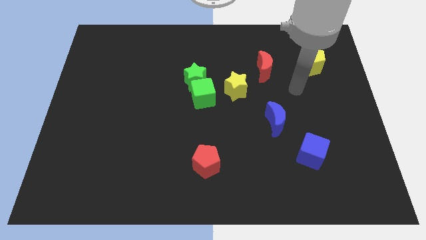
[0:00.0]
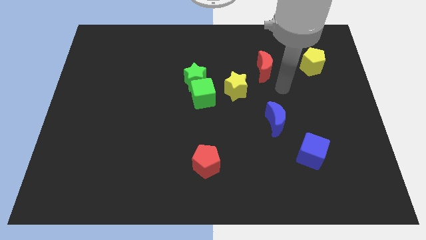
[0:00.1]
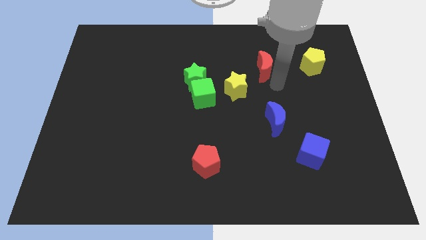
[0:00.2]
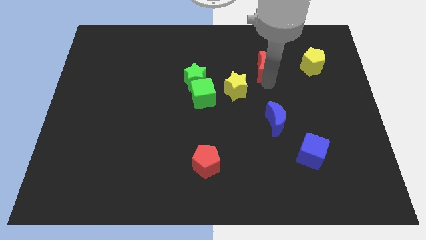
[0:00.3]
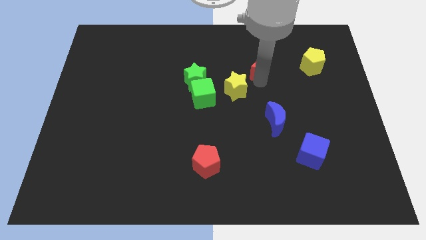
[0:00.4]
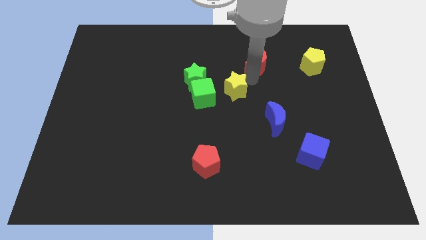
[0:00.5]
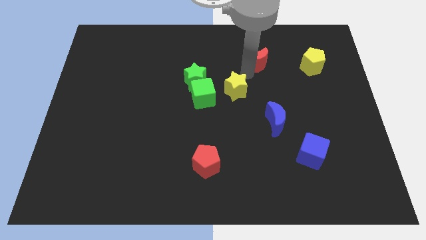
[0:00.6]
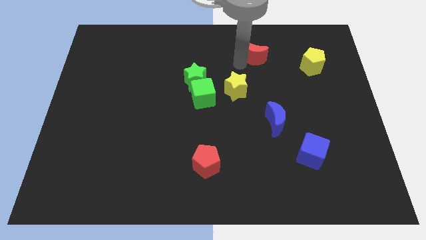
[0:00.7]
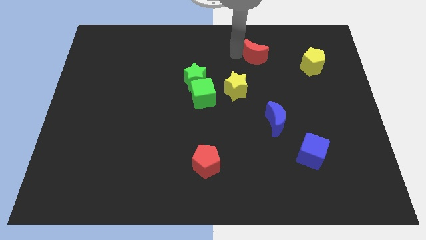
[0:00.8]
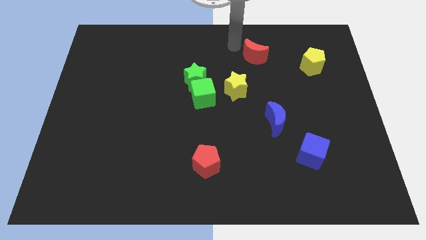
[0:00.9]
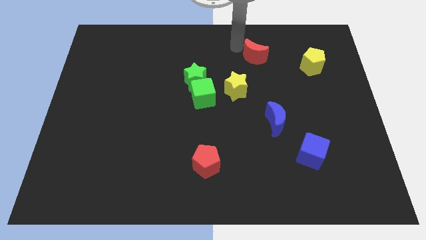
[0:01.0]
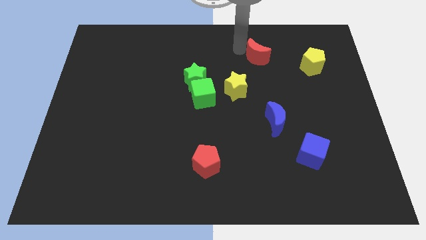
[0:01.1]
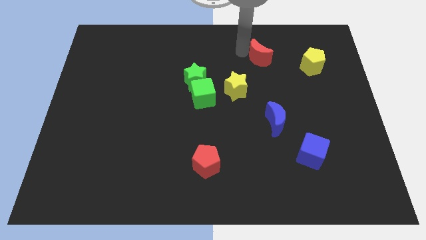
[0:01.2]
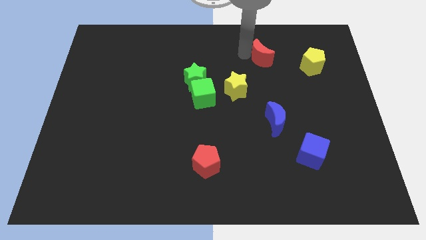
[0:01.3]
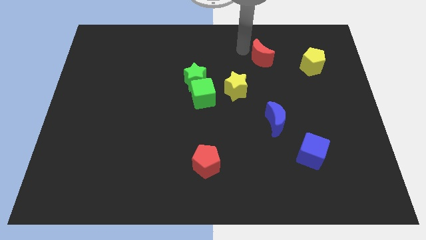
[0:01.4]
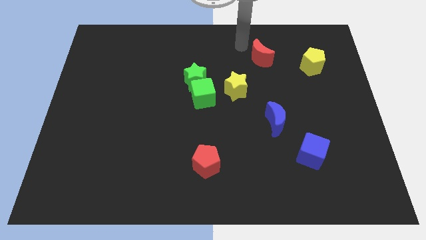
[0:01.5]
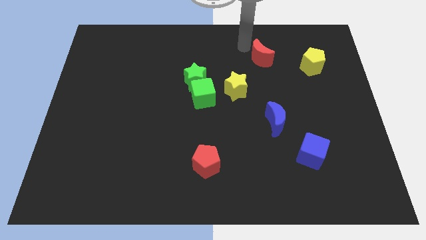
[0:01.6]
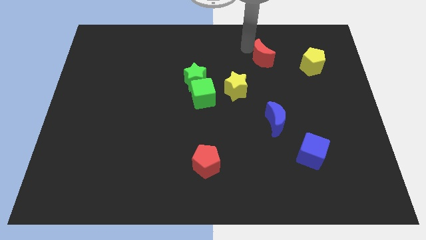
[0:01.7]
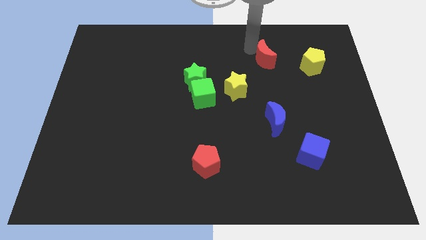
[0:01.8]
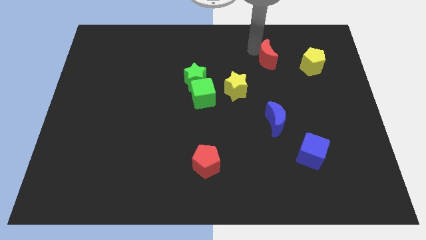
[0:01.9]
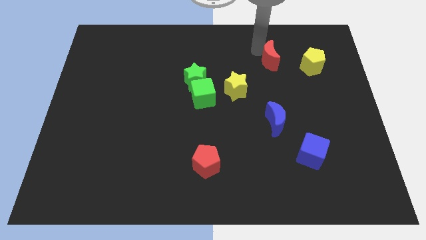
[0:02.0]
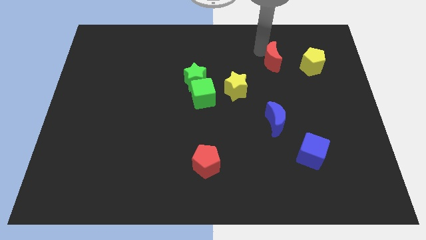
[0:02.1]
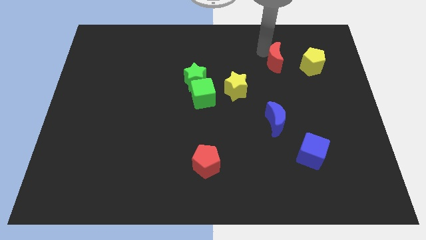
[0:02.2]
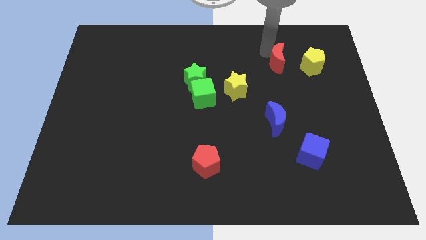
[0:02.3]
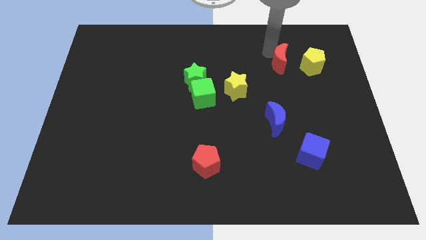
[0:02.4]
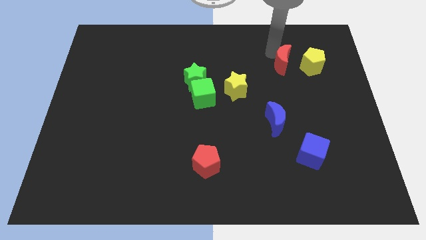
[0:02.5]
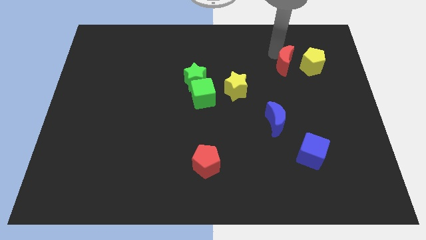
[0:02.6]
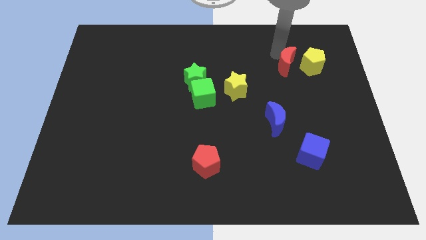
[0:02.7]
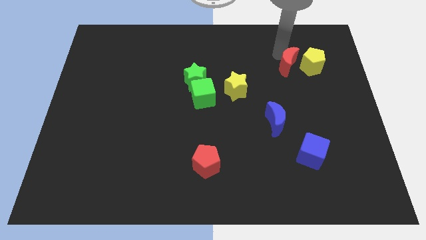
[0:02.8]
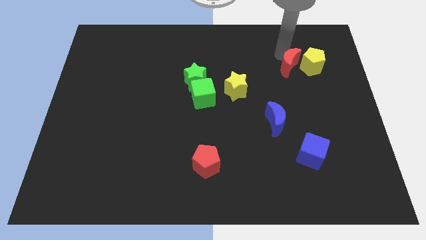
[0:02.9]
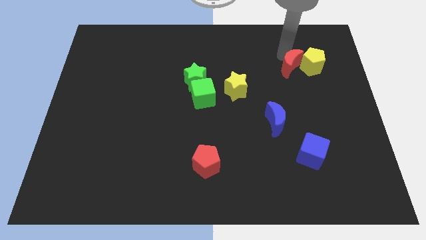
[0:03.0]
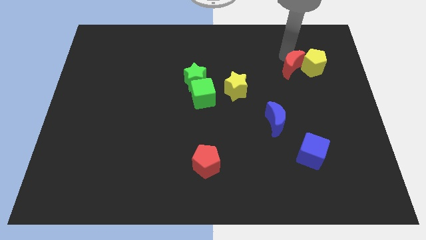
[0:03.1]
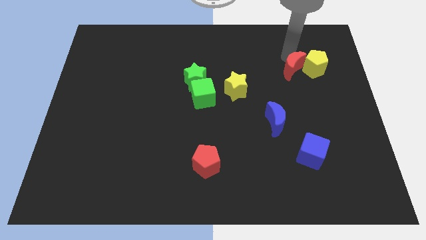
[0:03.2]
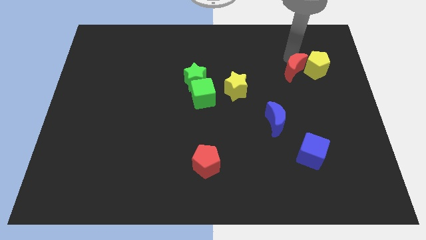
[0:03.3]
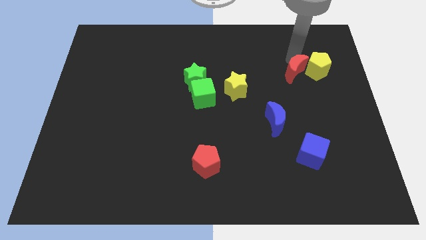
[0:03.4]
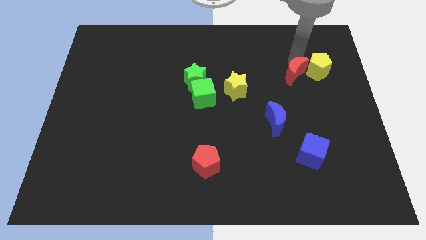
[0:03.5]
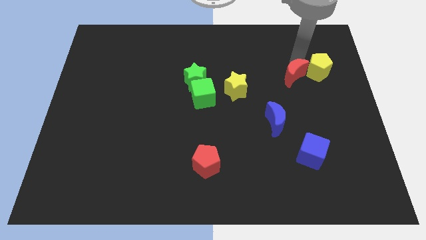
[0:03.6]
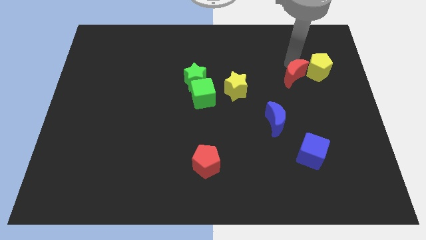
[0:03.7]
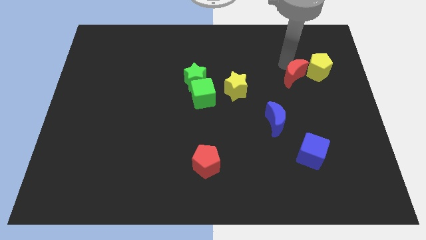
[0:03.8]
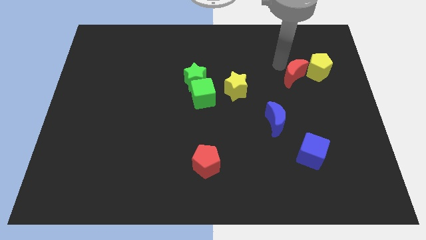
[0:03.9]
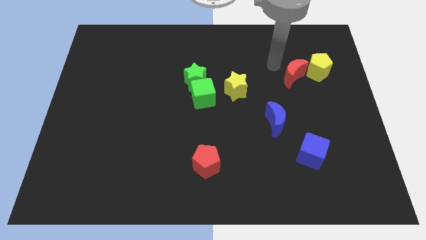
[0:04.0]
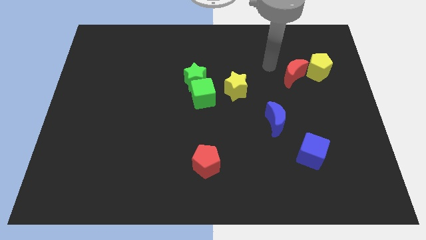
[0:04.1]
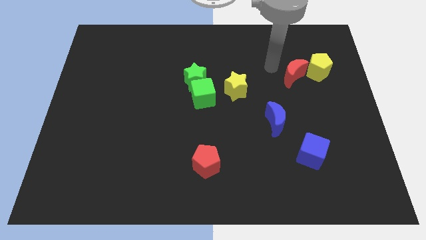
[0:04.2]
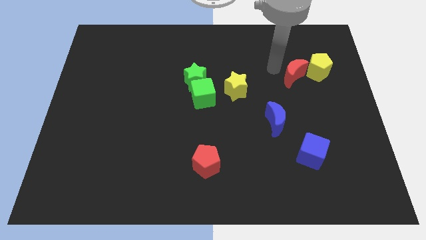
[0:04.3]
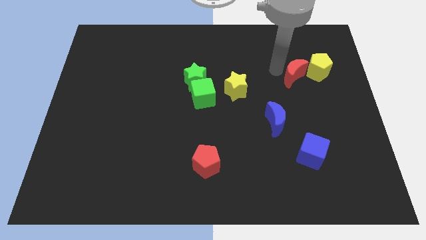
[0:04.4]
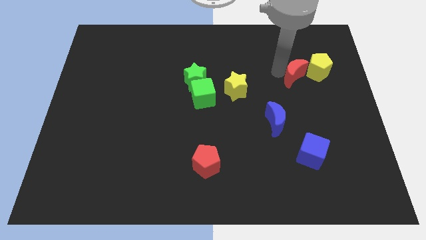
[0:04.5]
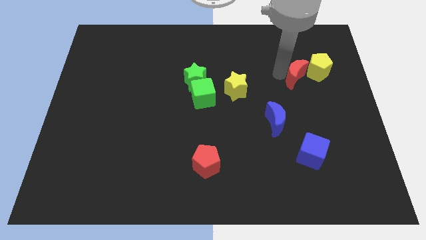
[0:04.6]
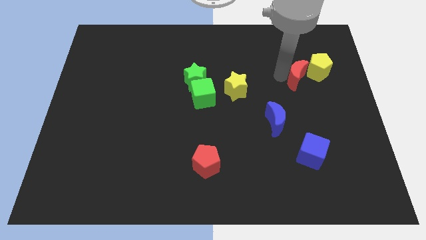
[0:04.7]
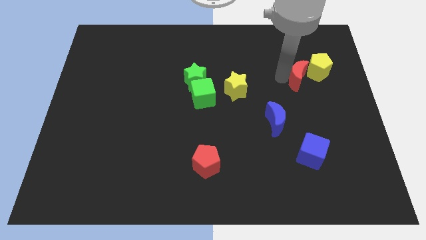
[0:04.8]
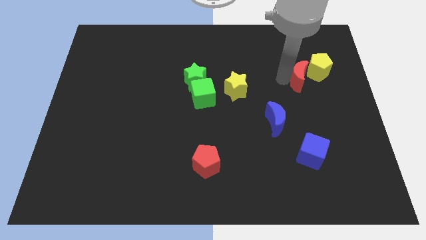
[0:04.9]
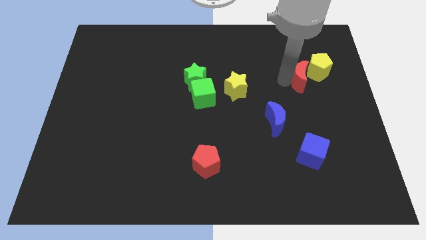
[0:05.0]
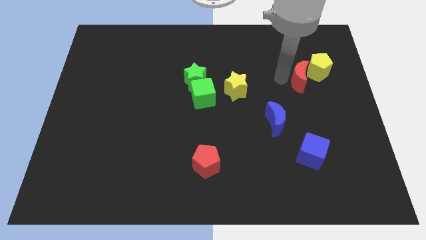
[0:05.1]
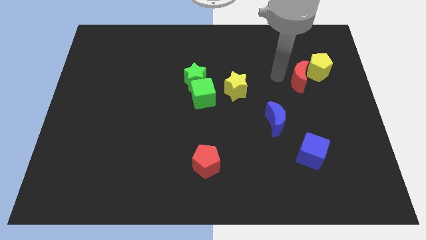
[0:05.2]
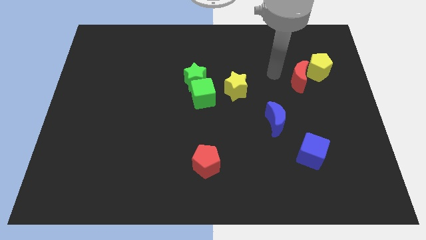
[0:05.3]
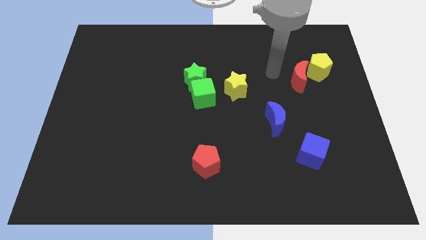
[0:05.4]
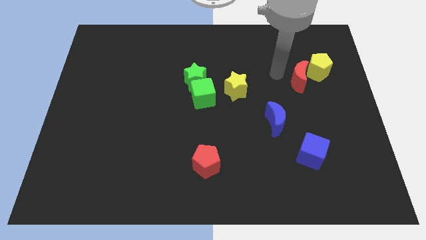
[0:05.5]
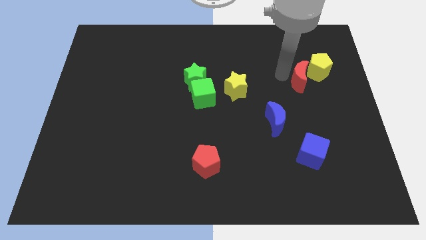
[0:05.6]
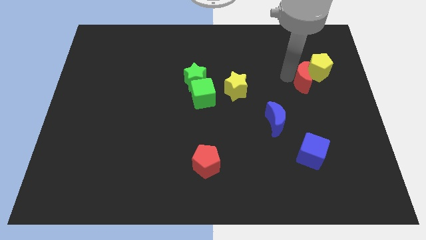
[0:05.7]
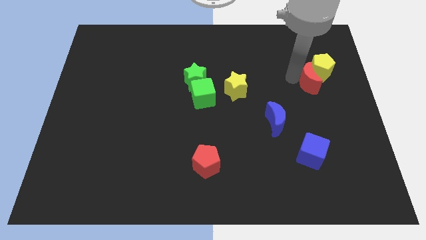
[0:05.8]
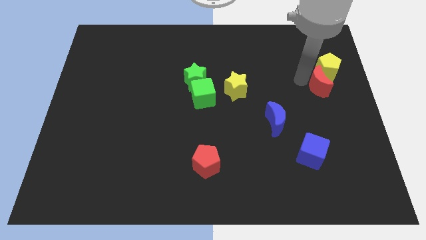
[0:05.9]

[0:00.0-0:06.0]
push the red moon to the center right
